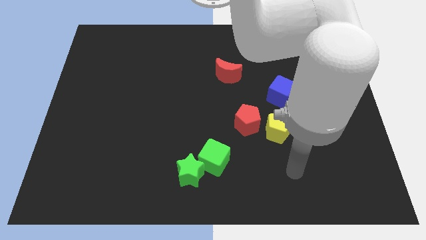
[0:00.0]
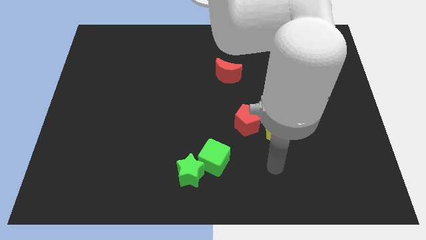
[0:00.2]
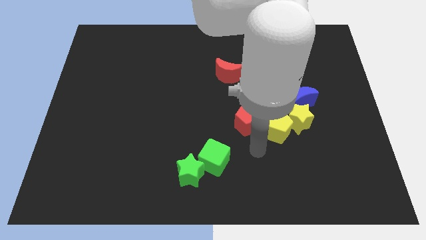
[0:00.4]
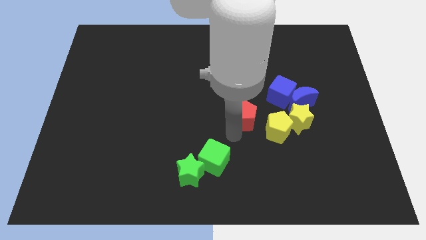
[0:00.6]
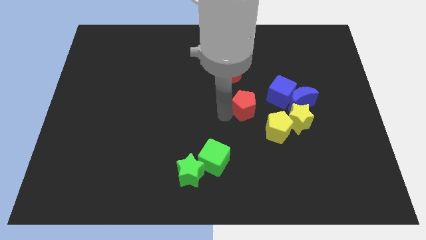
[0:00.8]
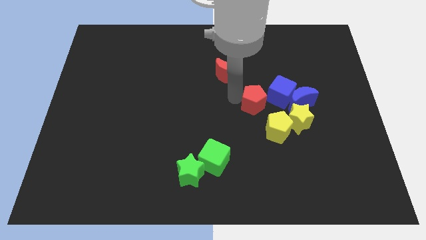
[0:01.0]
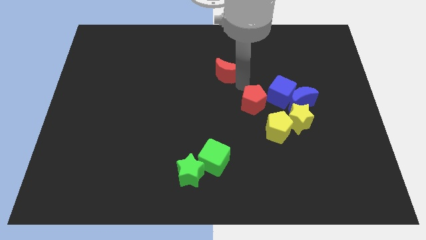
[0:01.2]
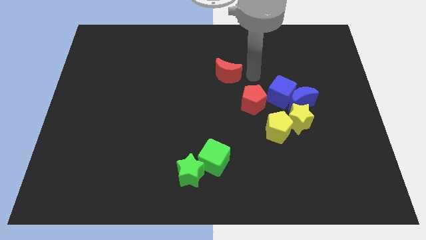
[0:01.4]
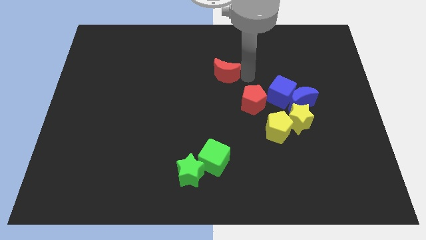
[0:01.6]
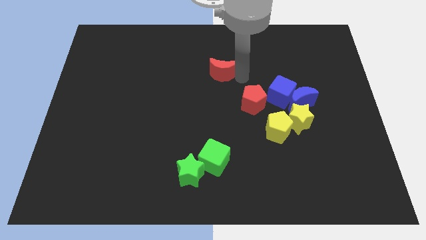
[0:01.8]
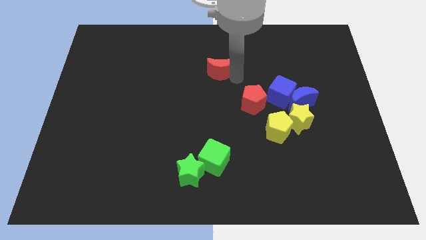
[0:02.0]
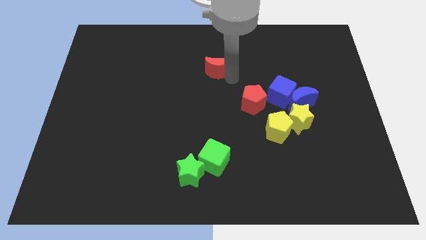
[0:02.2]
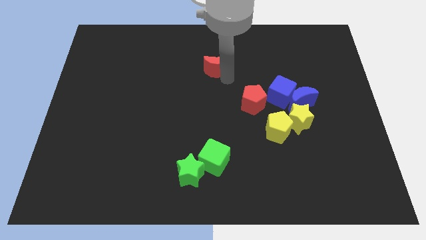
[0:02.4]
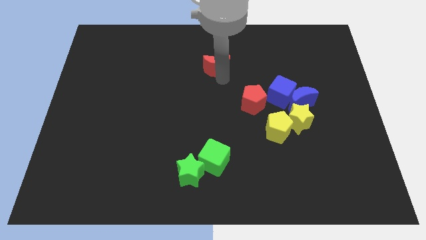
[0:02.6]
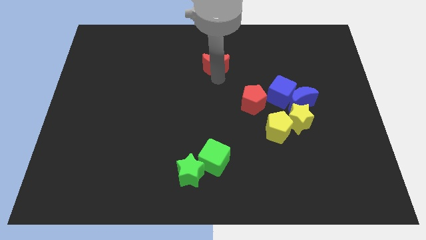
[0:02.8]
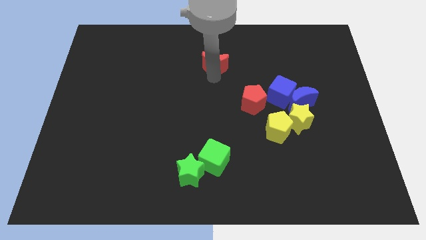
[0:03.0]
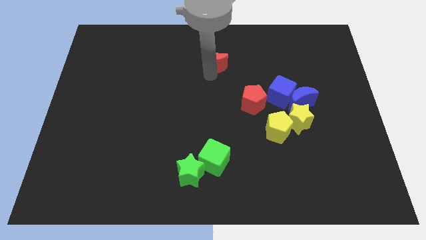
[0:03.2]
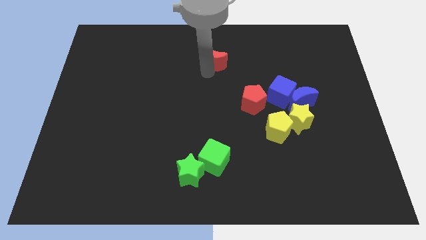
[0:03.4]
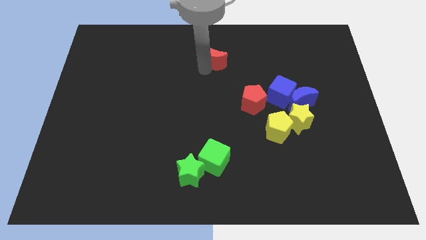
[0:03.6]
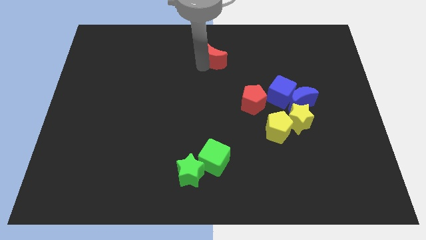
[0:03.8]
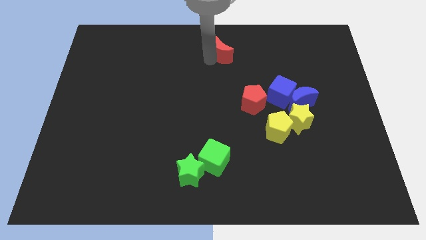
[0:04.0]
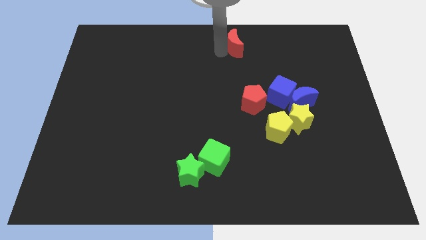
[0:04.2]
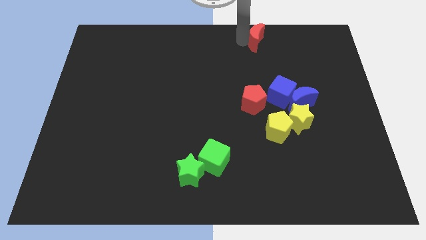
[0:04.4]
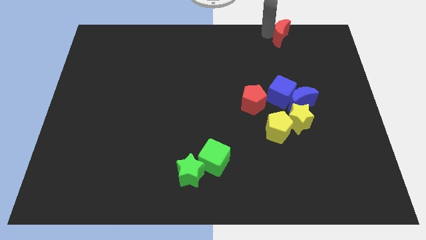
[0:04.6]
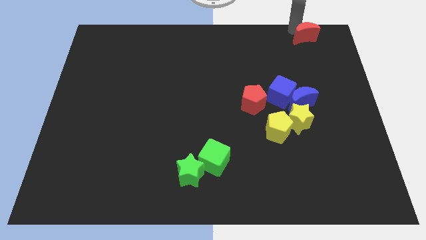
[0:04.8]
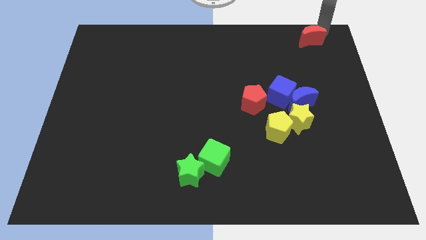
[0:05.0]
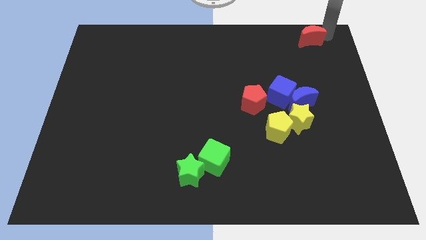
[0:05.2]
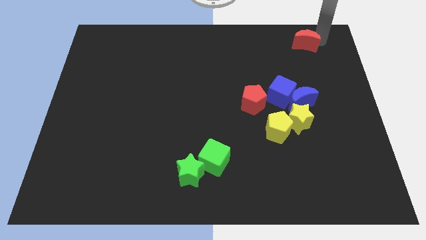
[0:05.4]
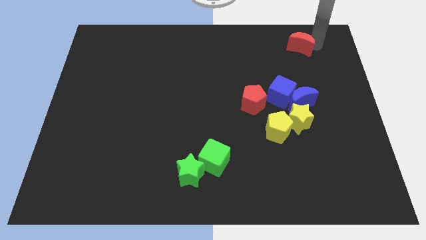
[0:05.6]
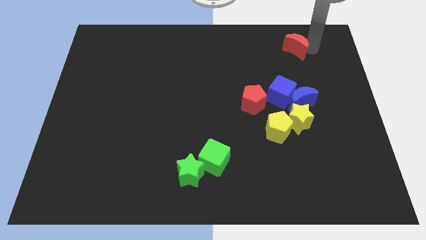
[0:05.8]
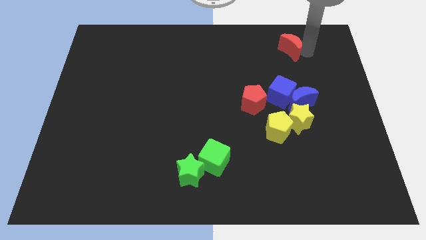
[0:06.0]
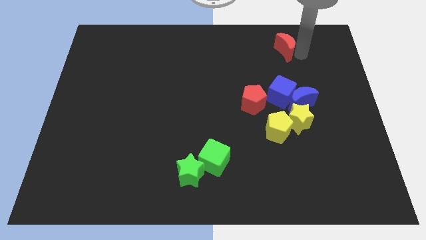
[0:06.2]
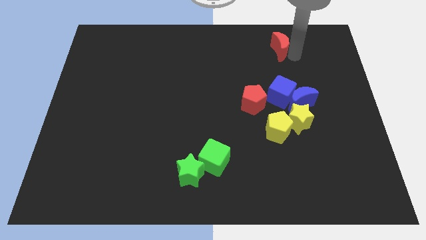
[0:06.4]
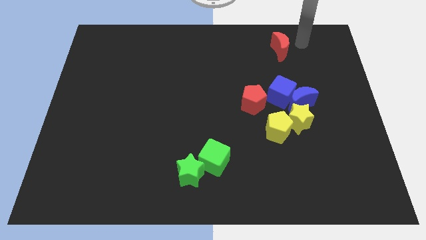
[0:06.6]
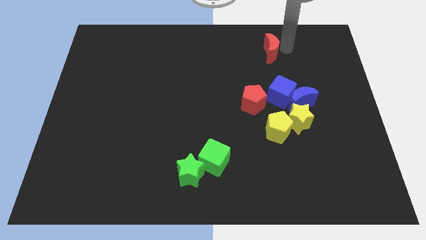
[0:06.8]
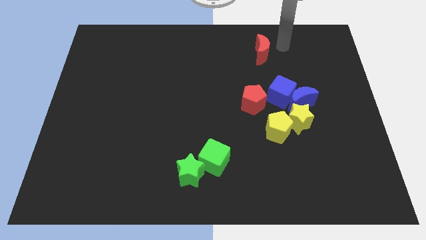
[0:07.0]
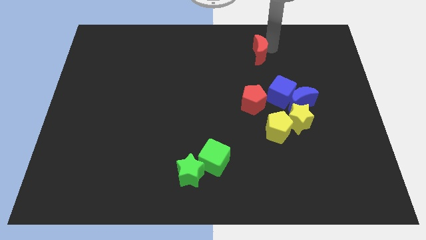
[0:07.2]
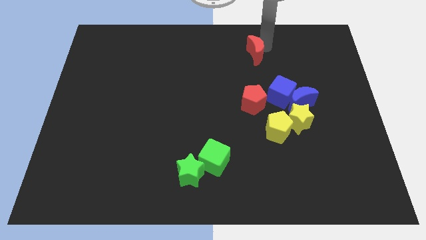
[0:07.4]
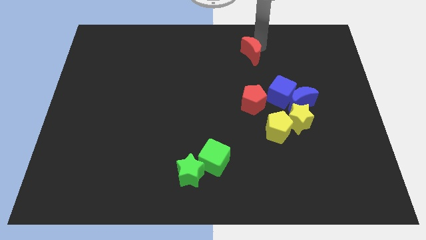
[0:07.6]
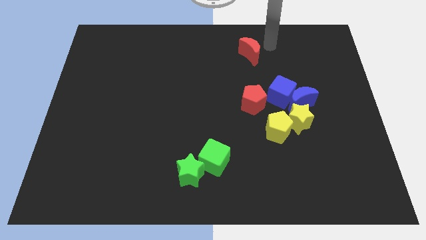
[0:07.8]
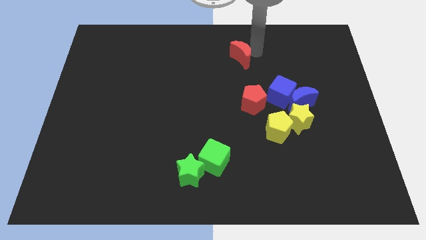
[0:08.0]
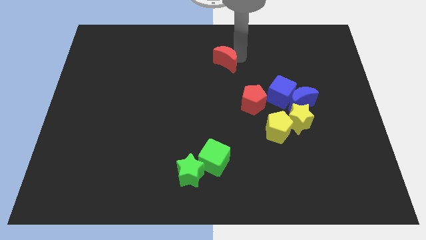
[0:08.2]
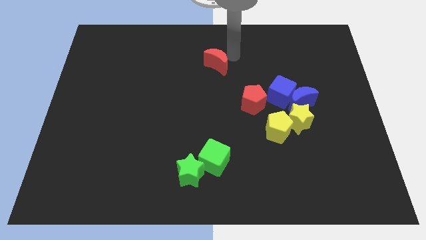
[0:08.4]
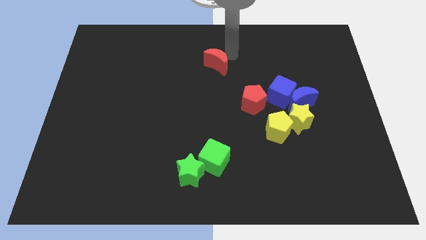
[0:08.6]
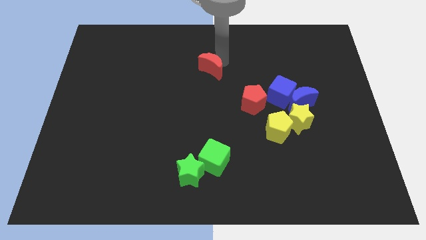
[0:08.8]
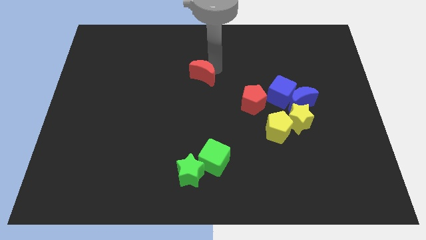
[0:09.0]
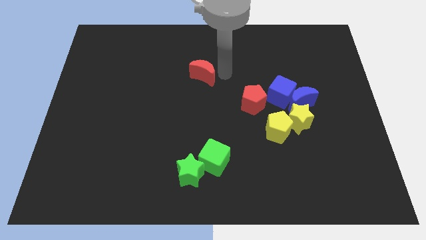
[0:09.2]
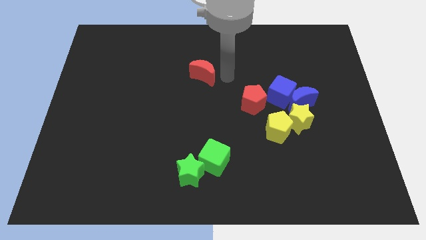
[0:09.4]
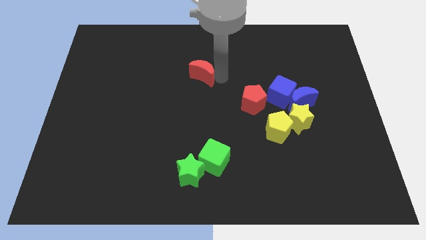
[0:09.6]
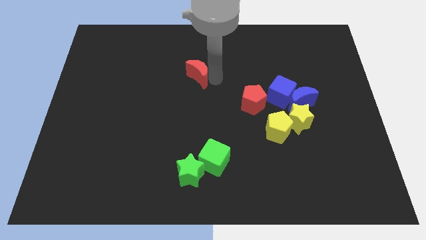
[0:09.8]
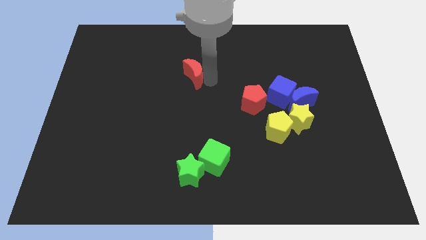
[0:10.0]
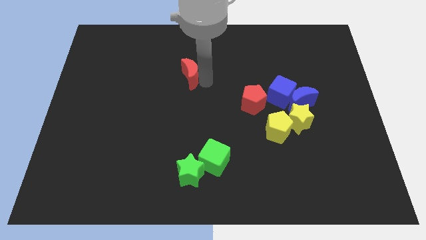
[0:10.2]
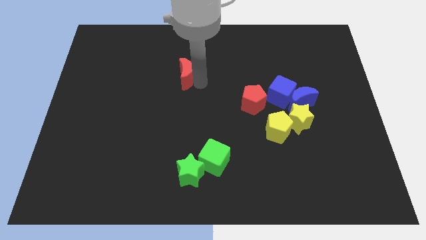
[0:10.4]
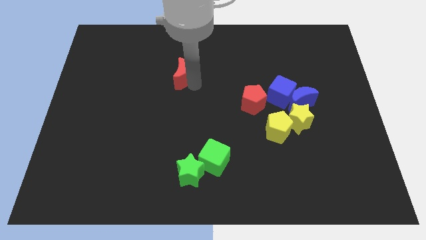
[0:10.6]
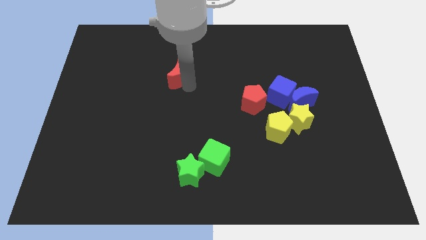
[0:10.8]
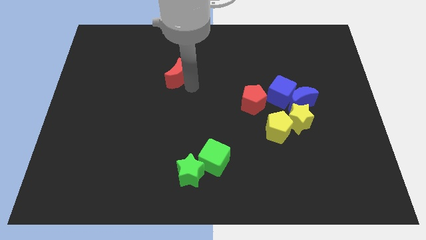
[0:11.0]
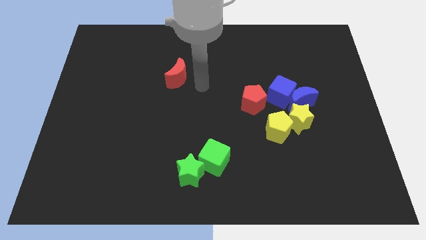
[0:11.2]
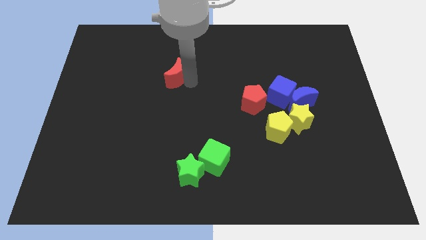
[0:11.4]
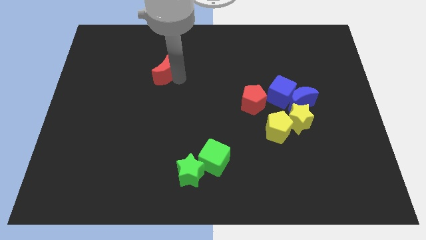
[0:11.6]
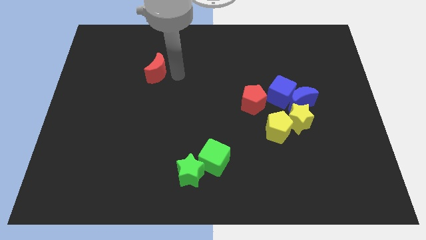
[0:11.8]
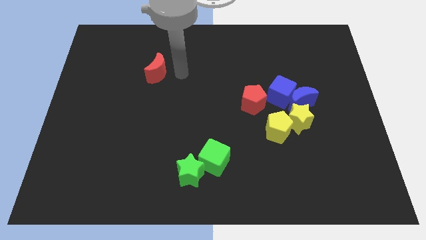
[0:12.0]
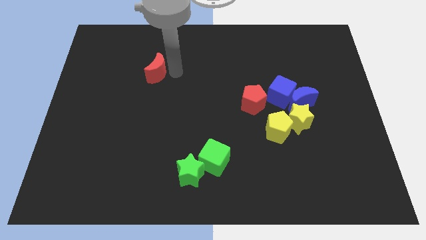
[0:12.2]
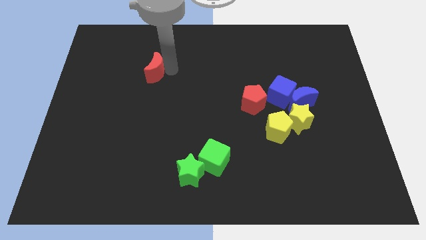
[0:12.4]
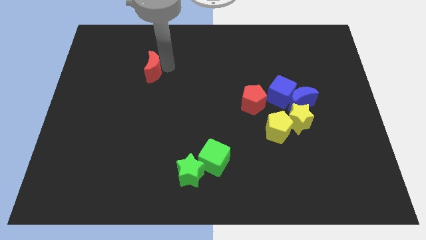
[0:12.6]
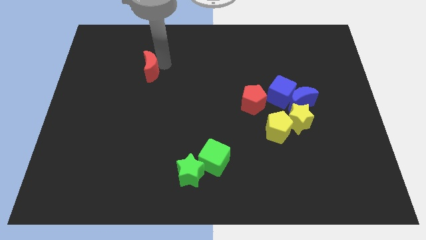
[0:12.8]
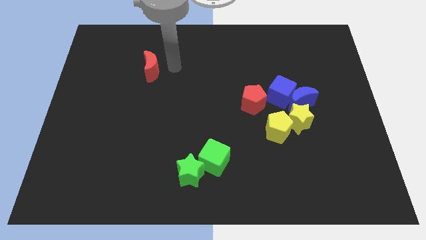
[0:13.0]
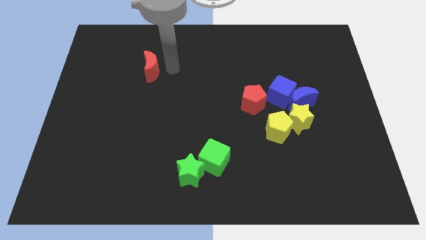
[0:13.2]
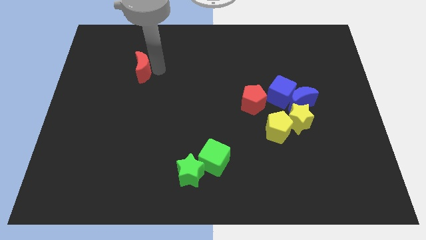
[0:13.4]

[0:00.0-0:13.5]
slide the red moon left

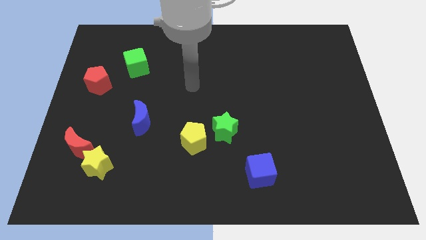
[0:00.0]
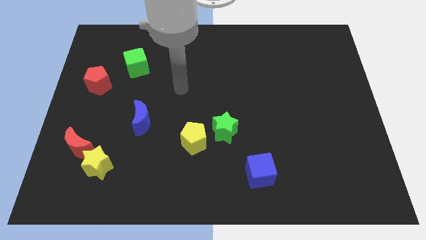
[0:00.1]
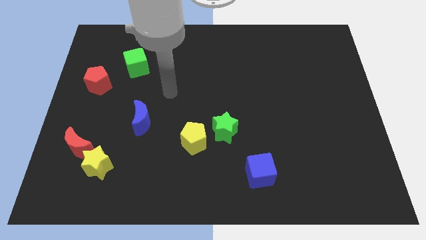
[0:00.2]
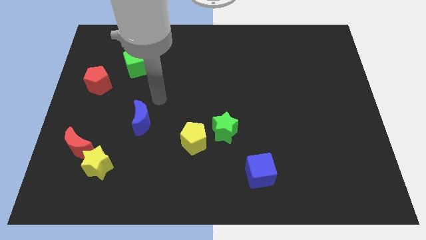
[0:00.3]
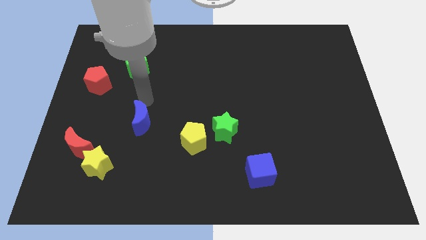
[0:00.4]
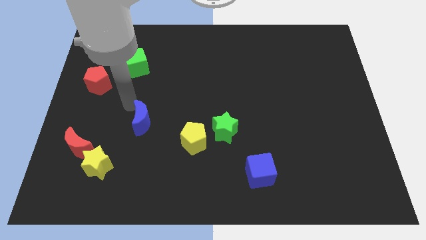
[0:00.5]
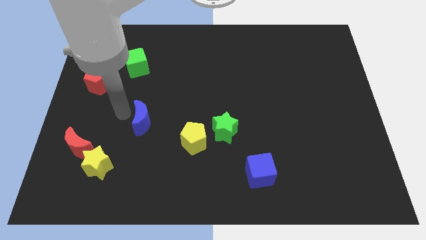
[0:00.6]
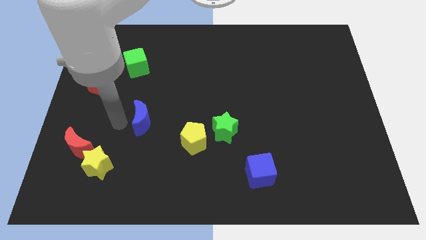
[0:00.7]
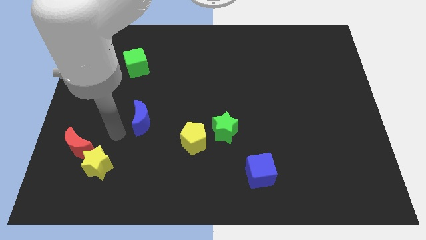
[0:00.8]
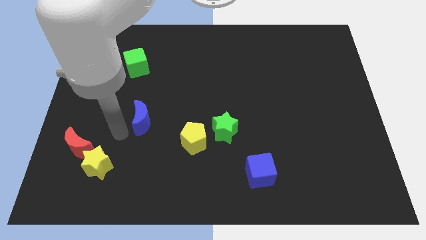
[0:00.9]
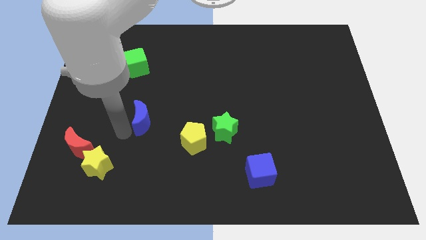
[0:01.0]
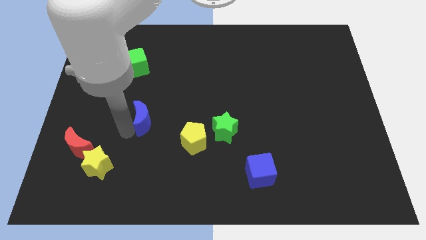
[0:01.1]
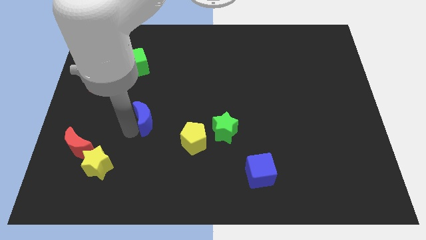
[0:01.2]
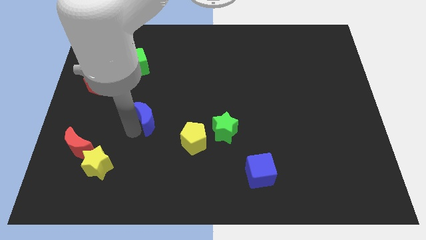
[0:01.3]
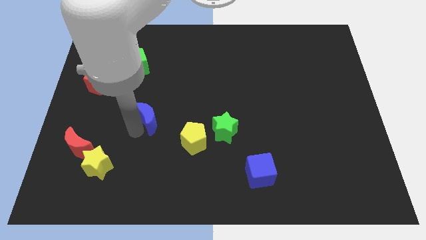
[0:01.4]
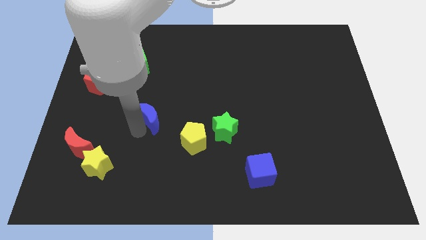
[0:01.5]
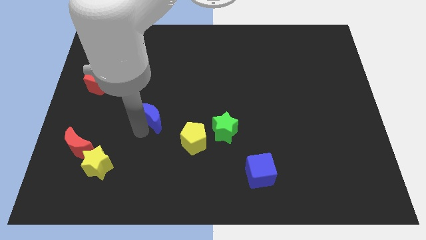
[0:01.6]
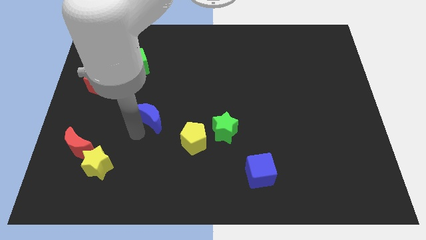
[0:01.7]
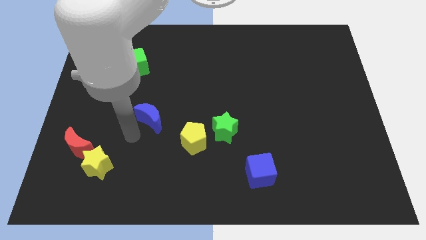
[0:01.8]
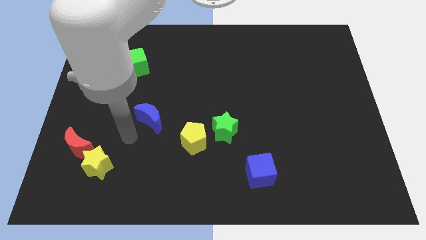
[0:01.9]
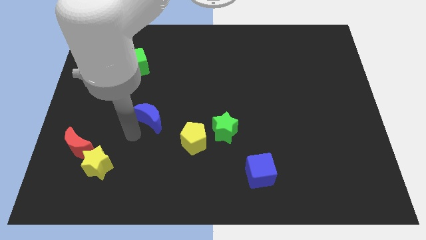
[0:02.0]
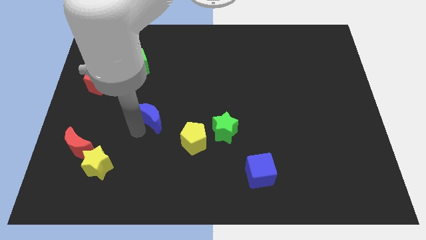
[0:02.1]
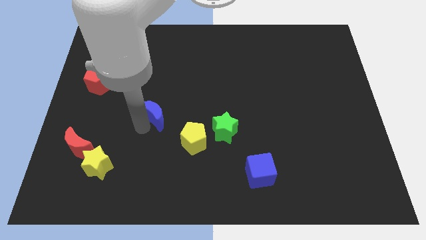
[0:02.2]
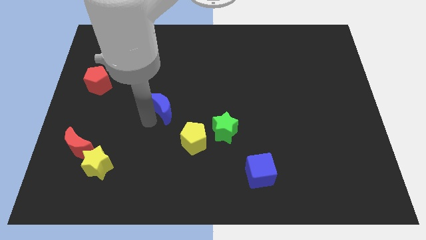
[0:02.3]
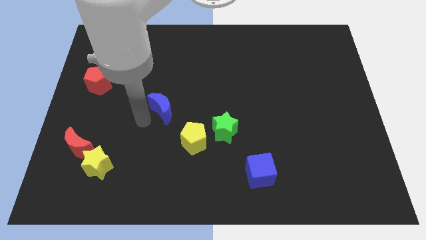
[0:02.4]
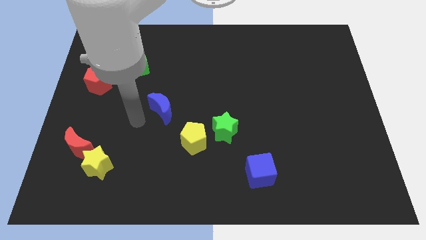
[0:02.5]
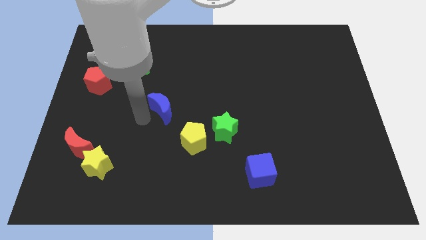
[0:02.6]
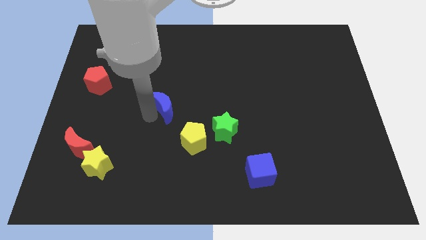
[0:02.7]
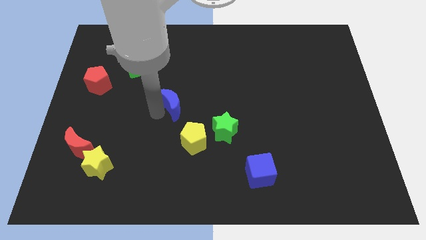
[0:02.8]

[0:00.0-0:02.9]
move the blue moon a little bit up and to the right diagonally
